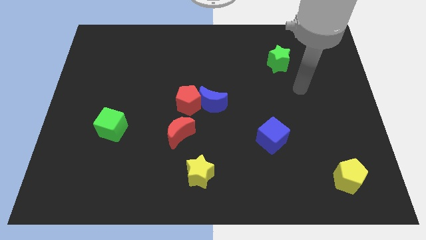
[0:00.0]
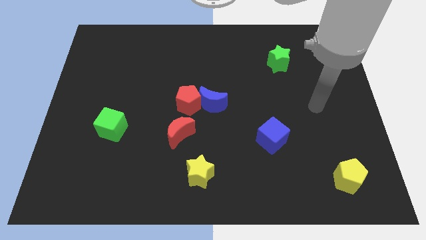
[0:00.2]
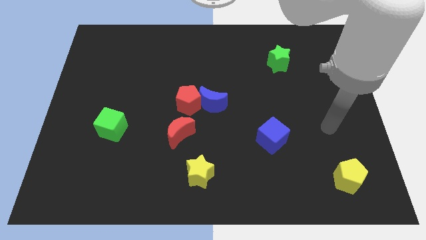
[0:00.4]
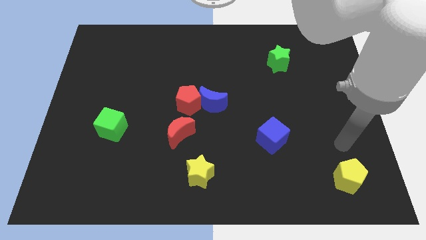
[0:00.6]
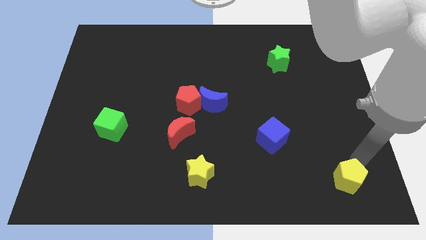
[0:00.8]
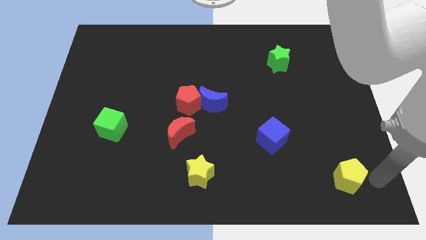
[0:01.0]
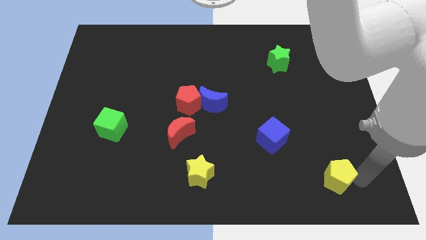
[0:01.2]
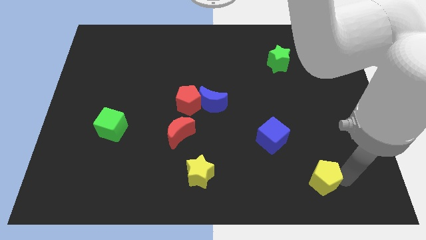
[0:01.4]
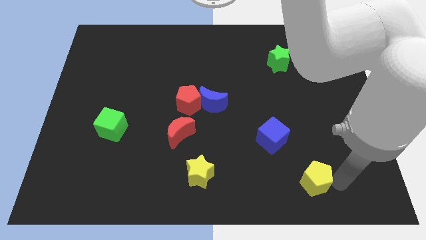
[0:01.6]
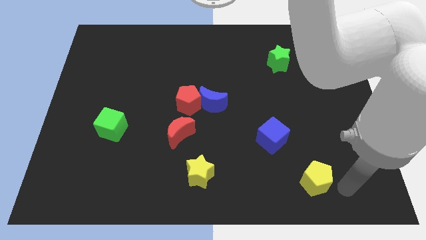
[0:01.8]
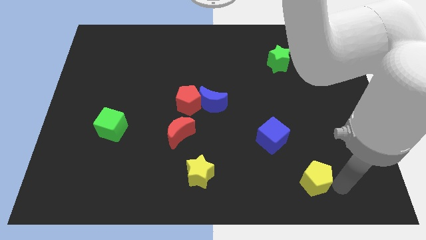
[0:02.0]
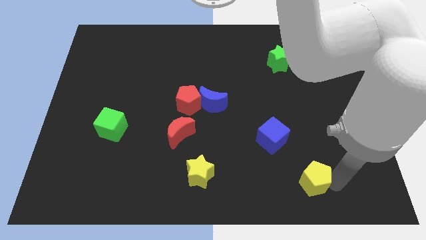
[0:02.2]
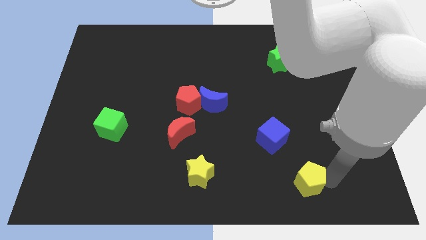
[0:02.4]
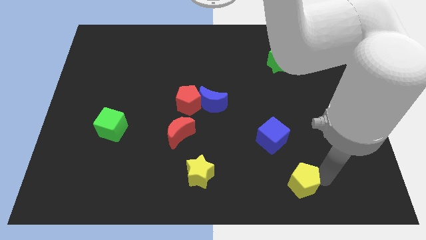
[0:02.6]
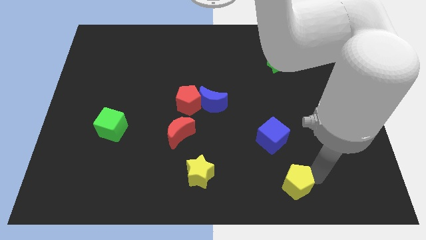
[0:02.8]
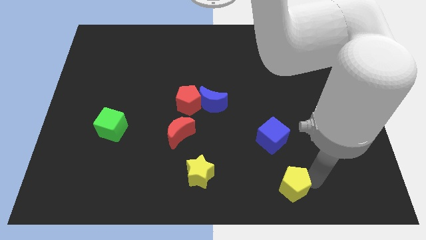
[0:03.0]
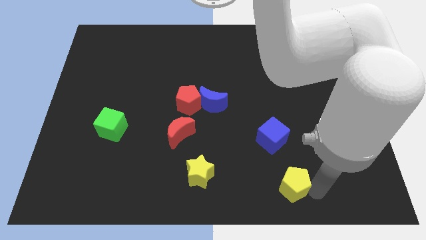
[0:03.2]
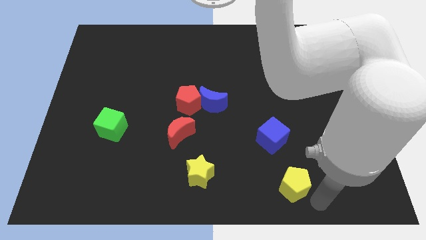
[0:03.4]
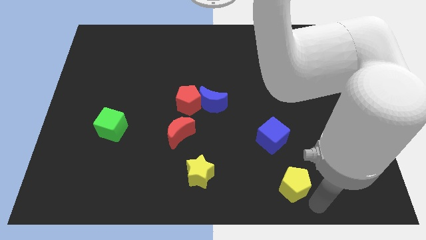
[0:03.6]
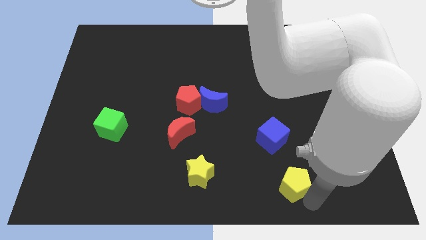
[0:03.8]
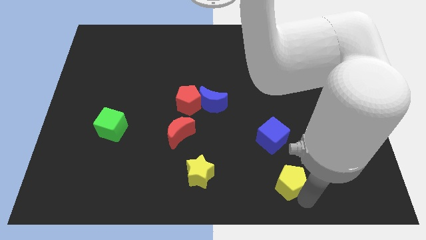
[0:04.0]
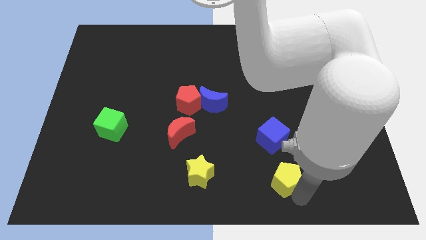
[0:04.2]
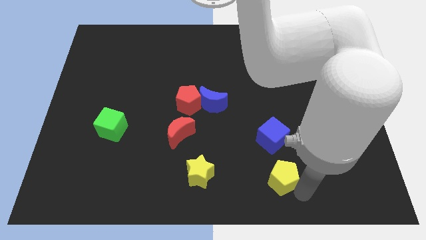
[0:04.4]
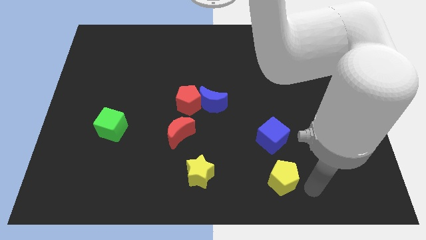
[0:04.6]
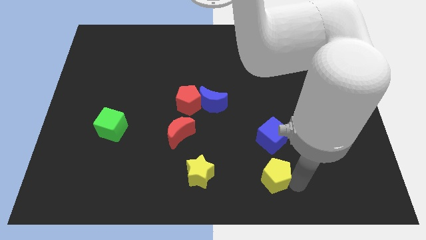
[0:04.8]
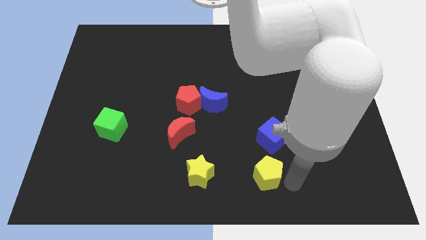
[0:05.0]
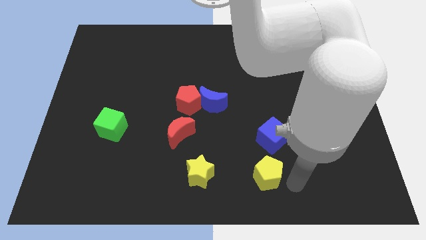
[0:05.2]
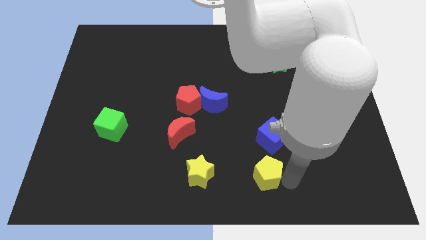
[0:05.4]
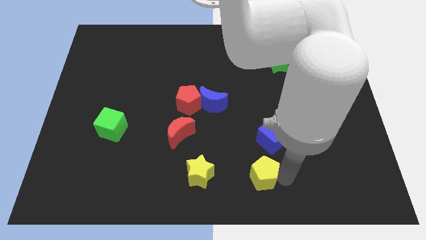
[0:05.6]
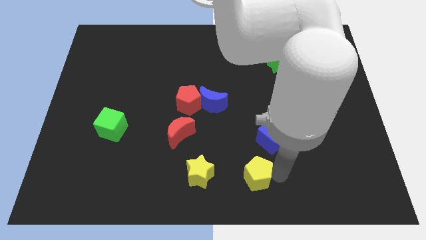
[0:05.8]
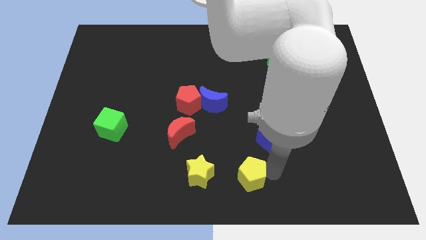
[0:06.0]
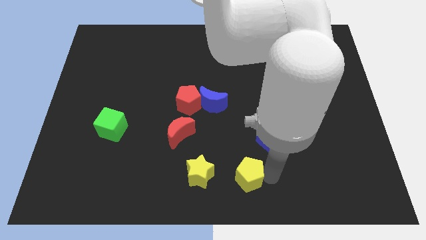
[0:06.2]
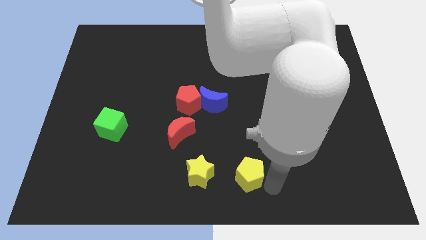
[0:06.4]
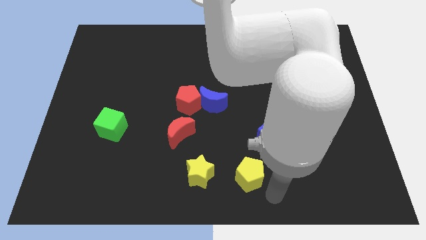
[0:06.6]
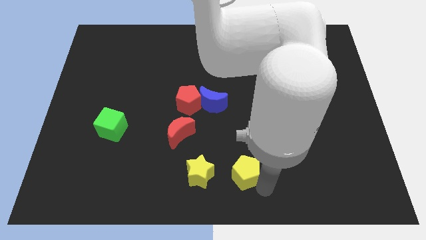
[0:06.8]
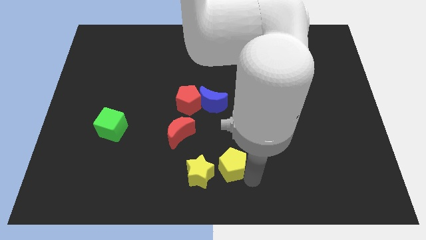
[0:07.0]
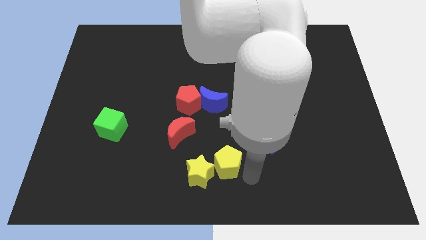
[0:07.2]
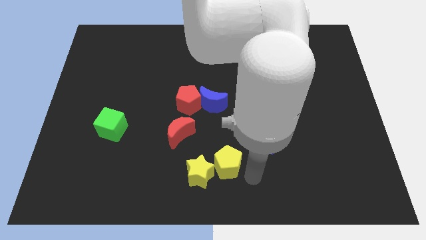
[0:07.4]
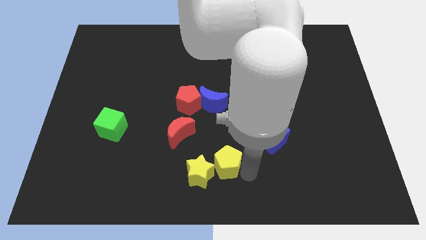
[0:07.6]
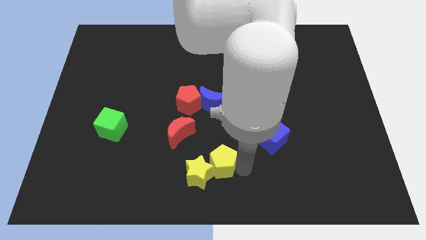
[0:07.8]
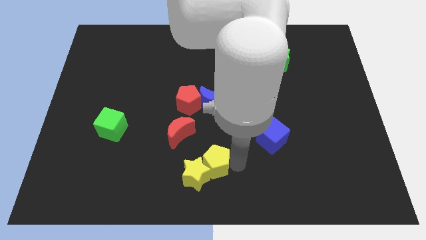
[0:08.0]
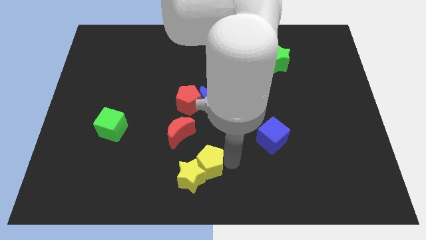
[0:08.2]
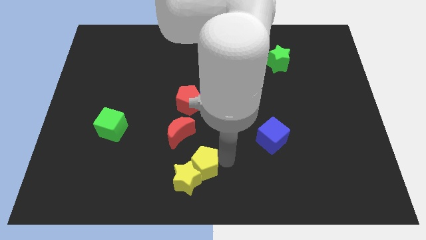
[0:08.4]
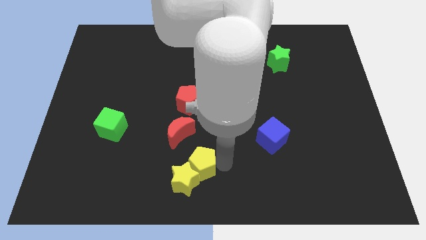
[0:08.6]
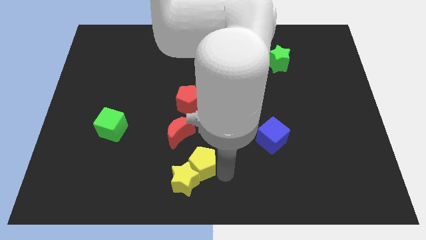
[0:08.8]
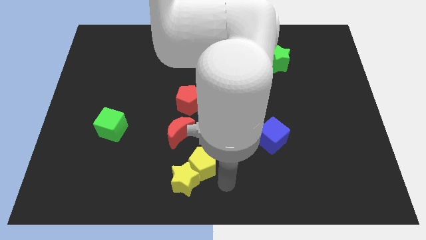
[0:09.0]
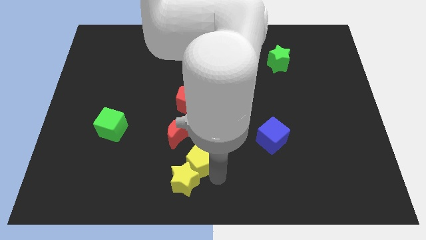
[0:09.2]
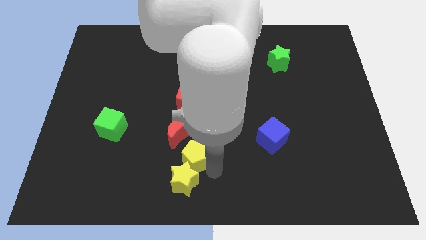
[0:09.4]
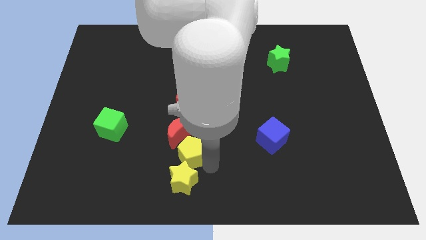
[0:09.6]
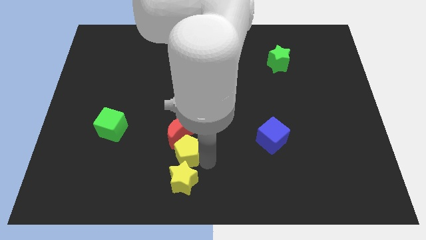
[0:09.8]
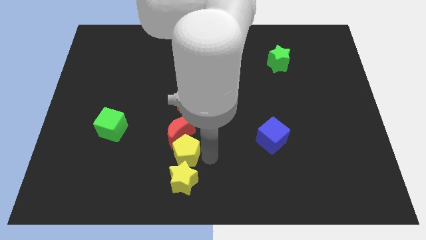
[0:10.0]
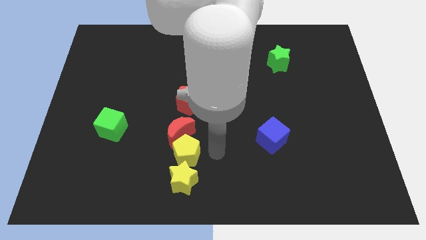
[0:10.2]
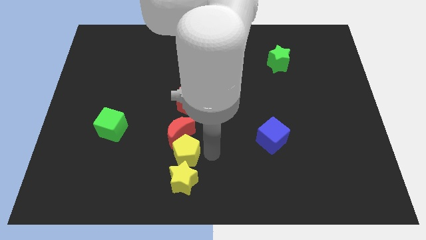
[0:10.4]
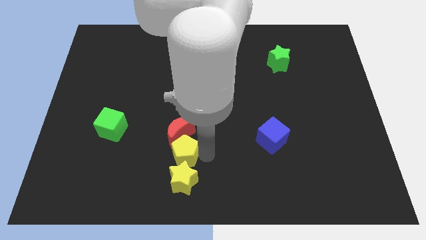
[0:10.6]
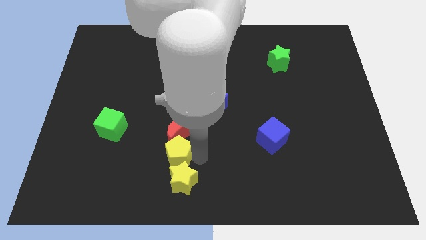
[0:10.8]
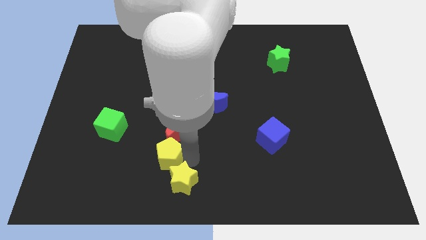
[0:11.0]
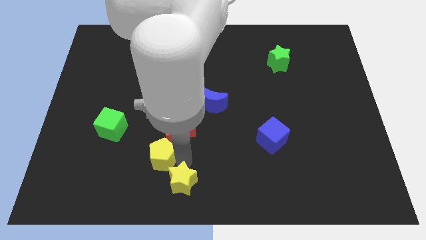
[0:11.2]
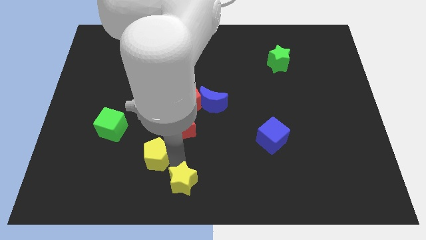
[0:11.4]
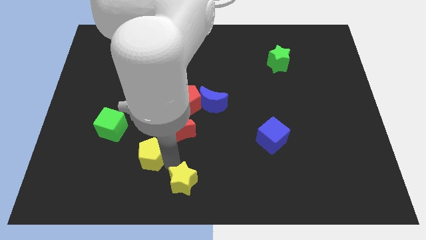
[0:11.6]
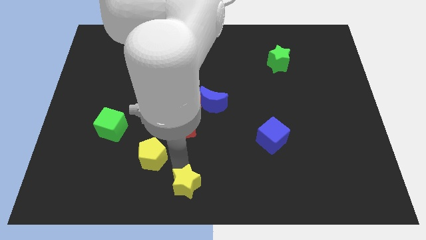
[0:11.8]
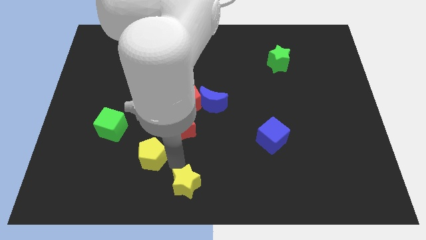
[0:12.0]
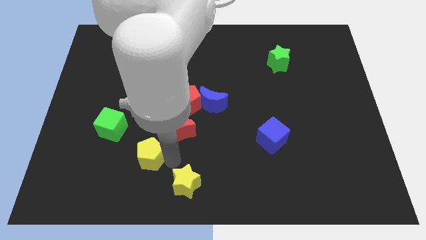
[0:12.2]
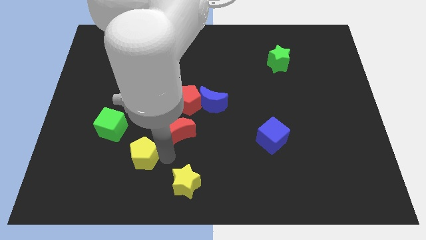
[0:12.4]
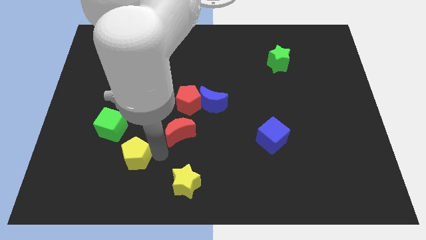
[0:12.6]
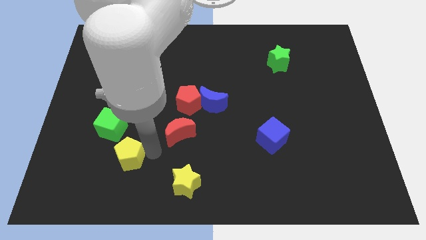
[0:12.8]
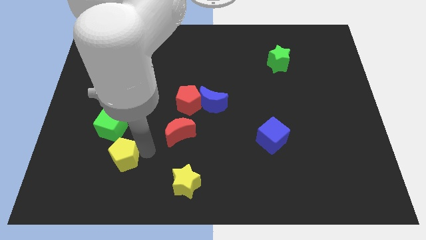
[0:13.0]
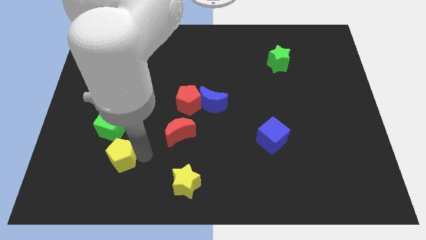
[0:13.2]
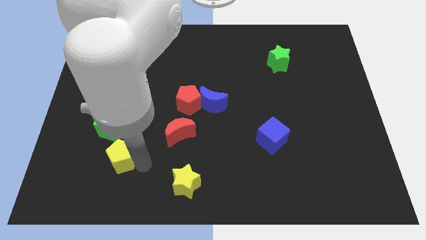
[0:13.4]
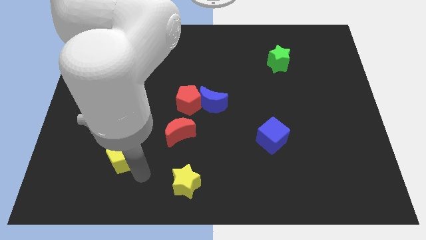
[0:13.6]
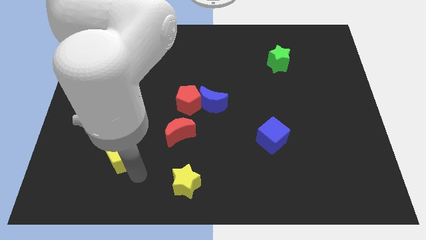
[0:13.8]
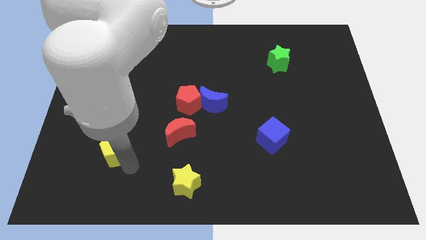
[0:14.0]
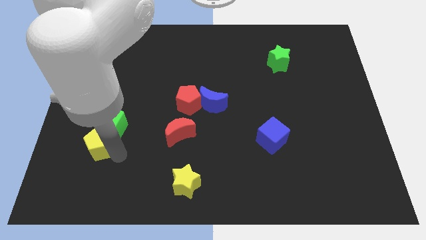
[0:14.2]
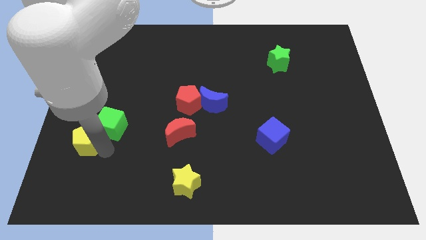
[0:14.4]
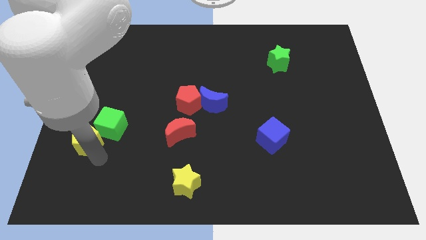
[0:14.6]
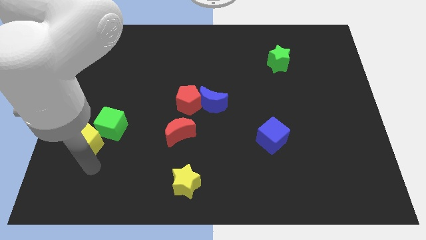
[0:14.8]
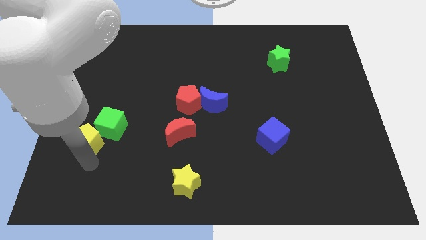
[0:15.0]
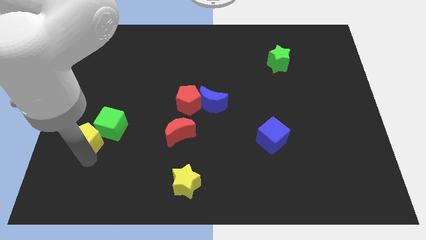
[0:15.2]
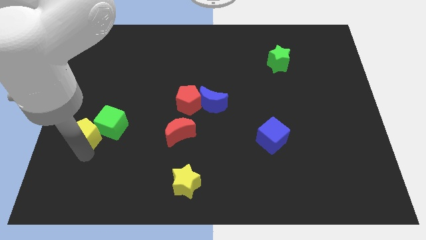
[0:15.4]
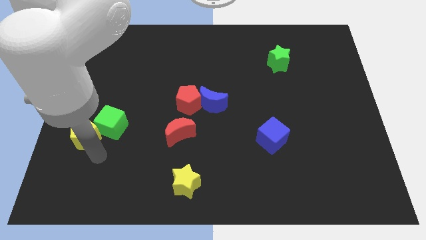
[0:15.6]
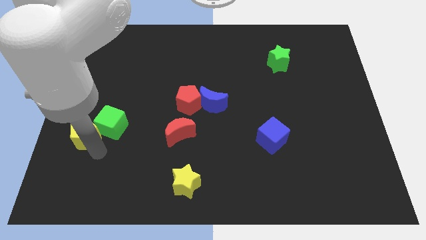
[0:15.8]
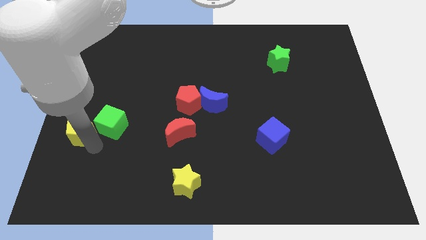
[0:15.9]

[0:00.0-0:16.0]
slide the yellow pentagon to the left side of the board
